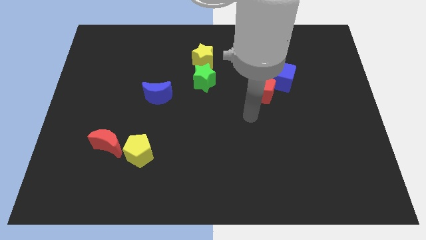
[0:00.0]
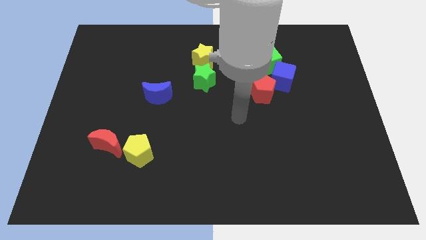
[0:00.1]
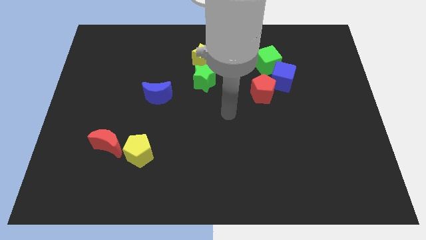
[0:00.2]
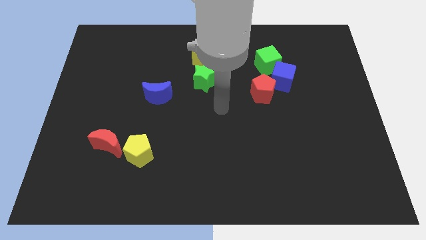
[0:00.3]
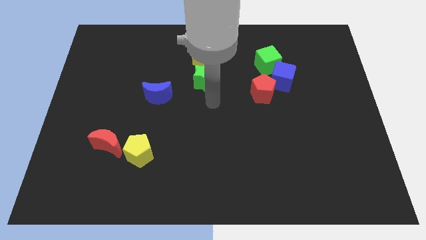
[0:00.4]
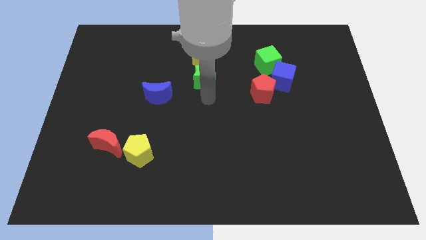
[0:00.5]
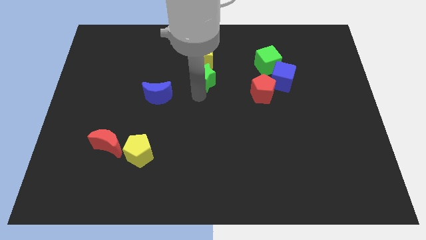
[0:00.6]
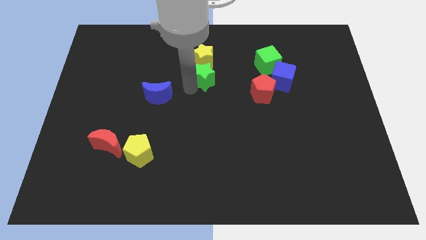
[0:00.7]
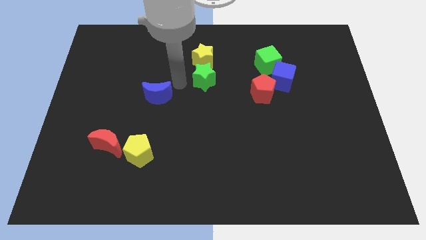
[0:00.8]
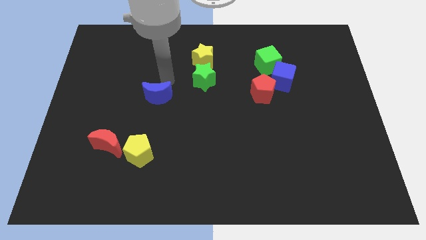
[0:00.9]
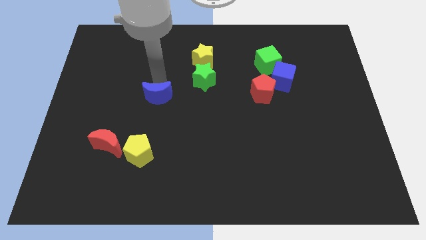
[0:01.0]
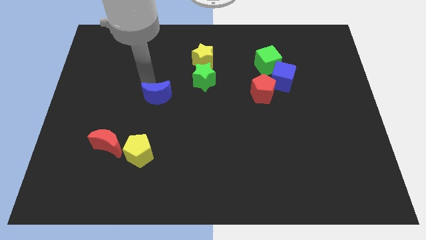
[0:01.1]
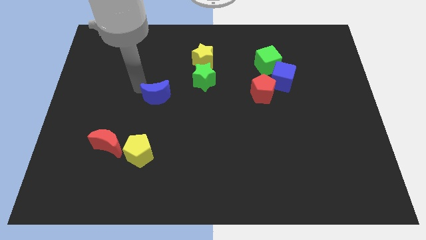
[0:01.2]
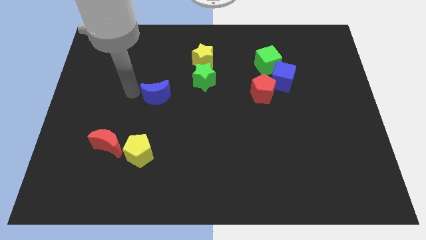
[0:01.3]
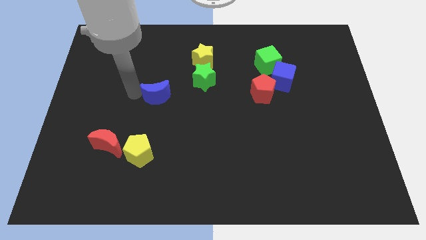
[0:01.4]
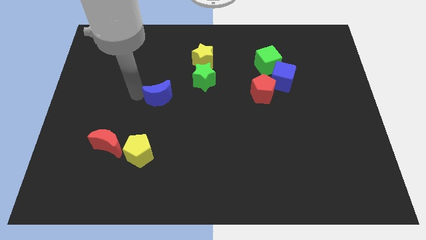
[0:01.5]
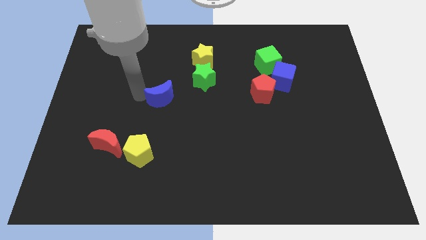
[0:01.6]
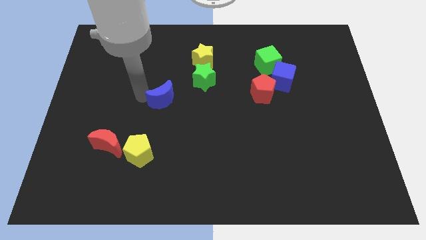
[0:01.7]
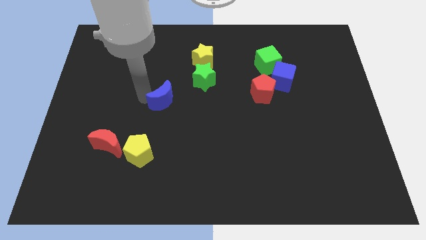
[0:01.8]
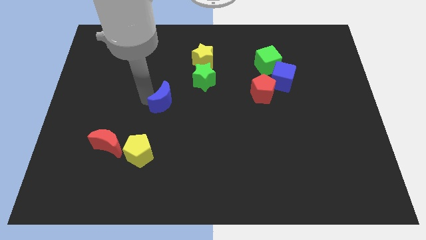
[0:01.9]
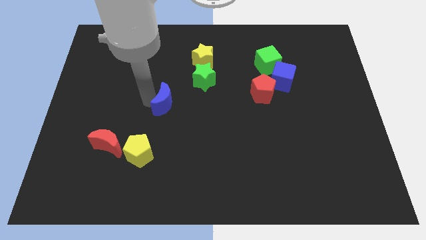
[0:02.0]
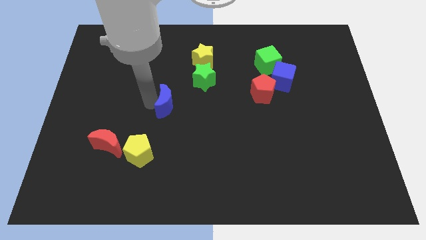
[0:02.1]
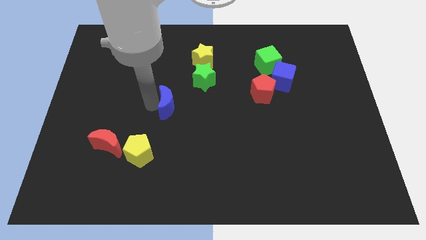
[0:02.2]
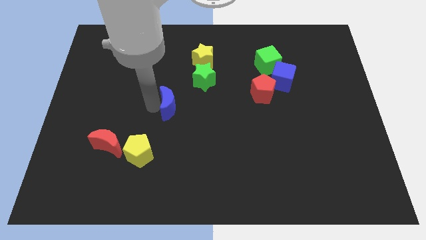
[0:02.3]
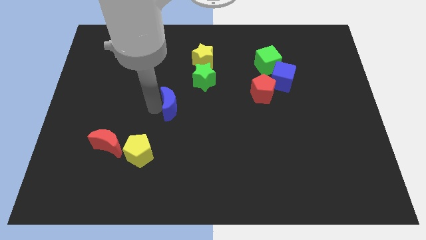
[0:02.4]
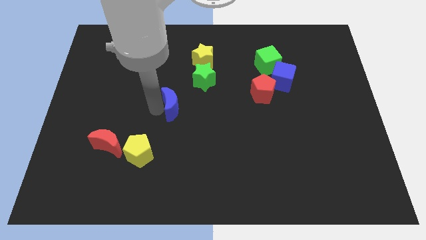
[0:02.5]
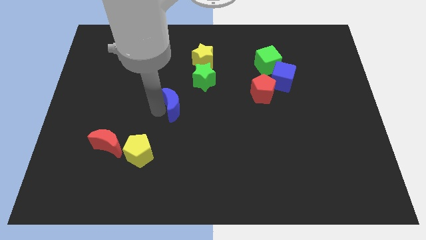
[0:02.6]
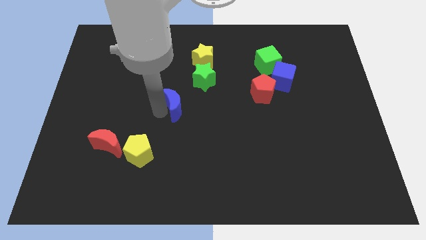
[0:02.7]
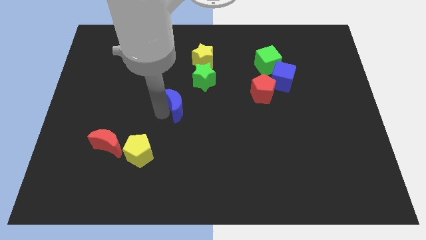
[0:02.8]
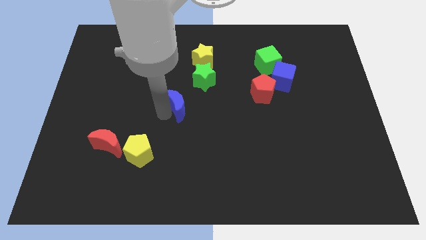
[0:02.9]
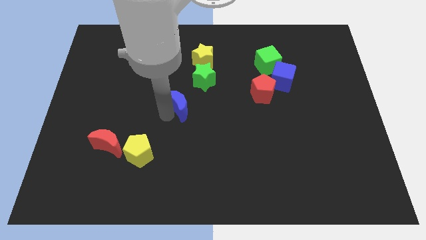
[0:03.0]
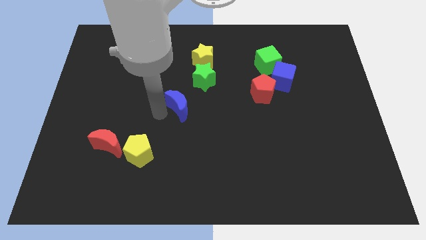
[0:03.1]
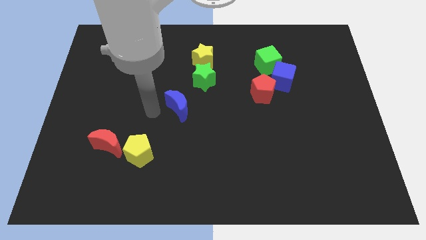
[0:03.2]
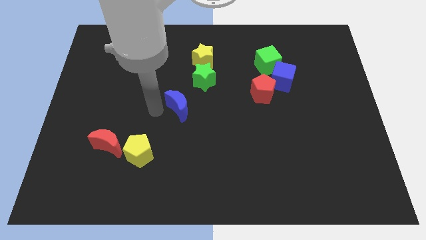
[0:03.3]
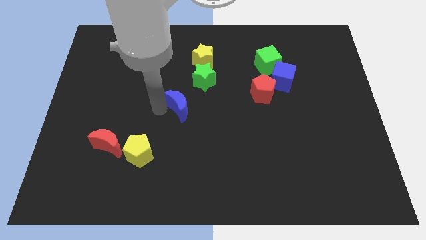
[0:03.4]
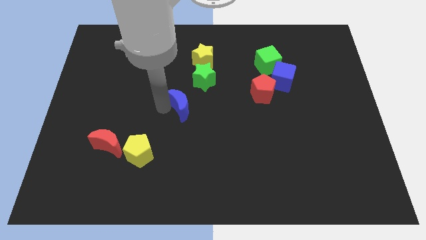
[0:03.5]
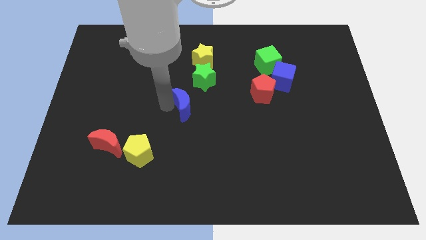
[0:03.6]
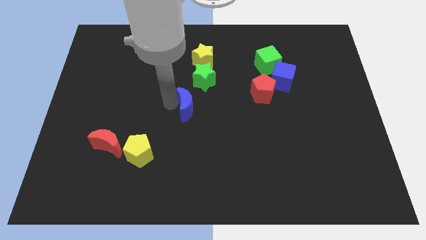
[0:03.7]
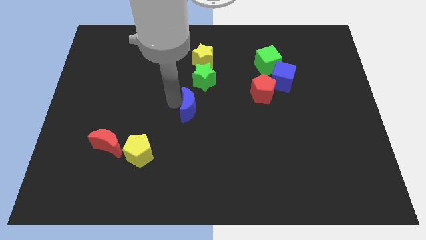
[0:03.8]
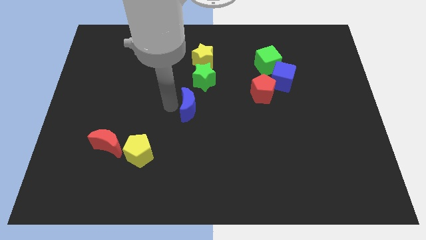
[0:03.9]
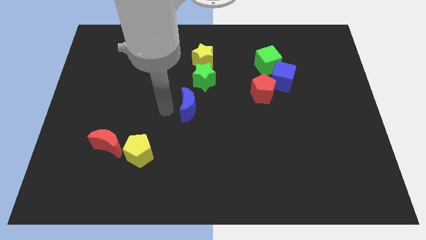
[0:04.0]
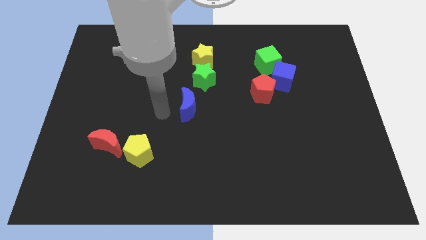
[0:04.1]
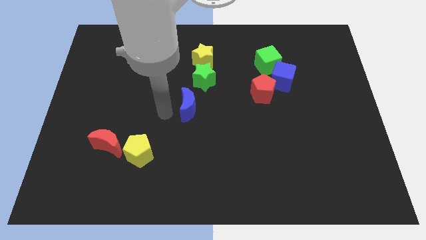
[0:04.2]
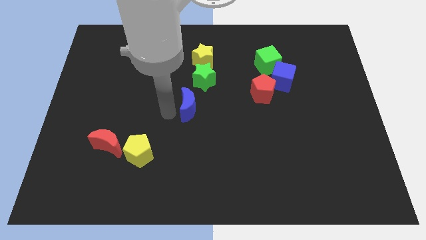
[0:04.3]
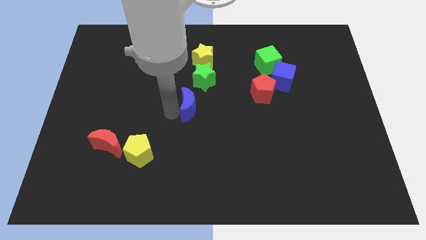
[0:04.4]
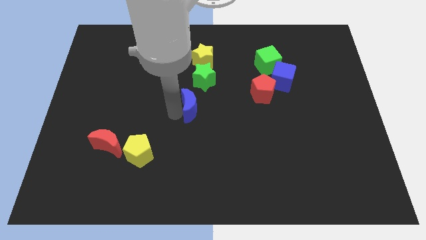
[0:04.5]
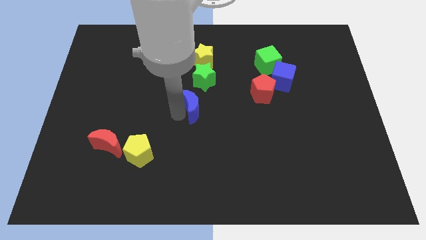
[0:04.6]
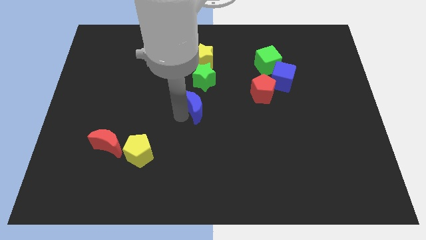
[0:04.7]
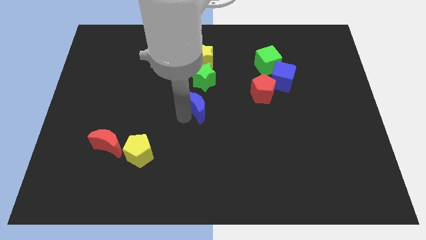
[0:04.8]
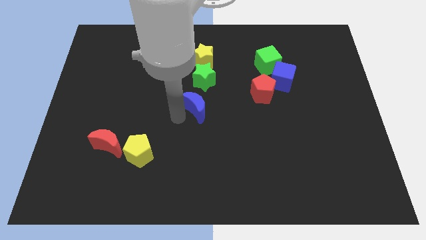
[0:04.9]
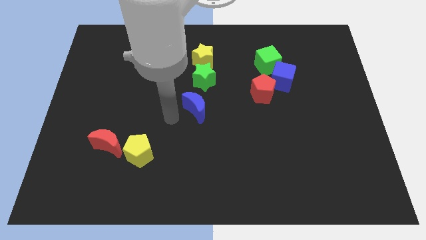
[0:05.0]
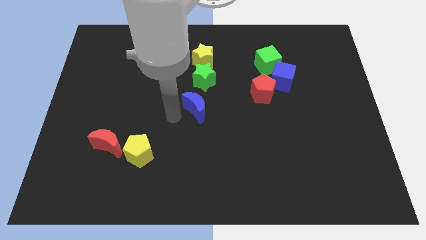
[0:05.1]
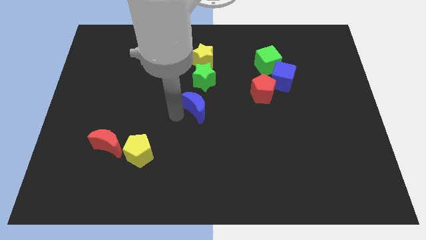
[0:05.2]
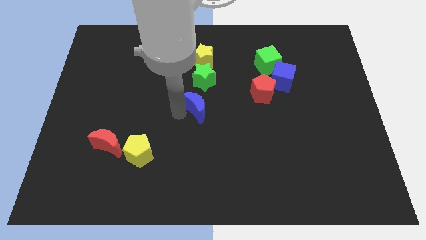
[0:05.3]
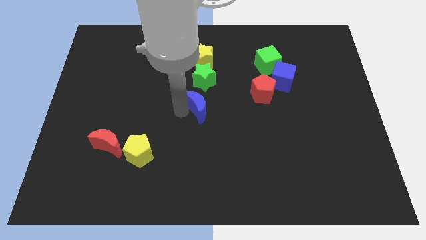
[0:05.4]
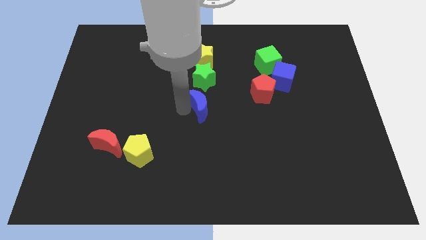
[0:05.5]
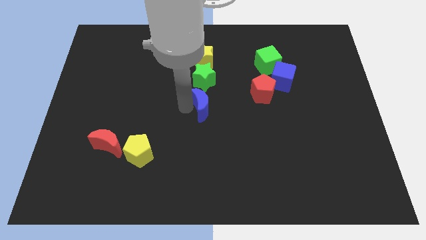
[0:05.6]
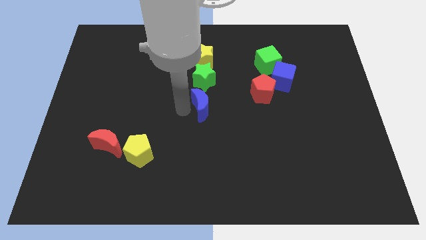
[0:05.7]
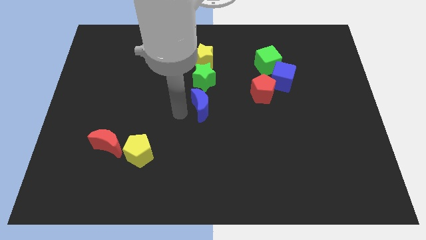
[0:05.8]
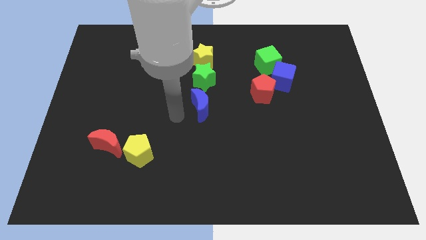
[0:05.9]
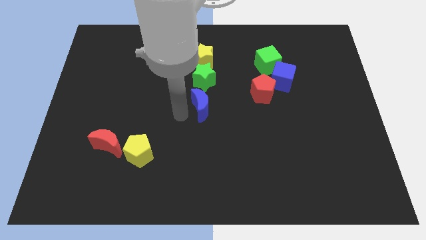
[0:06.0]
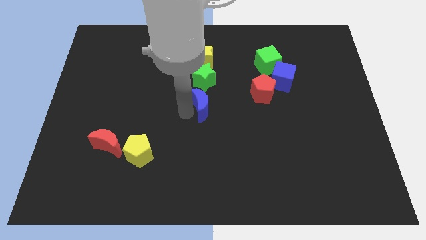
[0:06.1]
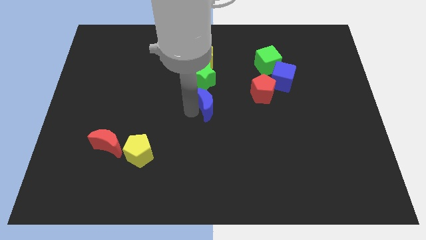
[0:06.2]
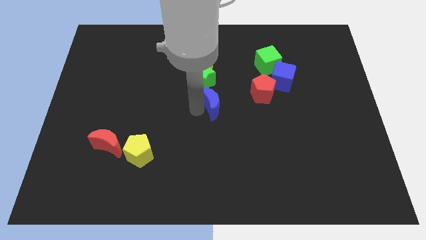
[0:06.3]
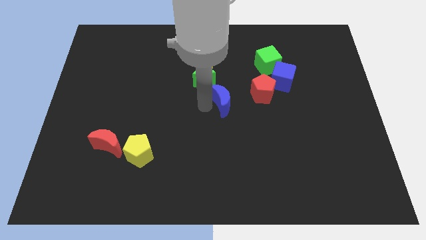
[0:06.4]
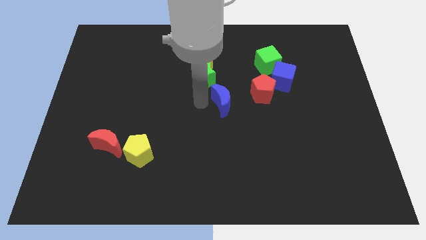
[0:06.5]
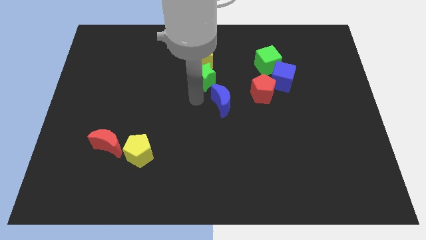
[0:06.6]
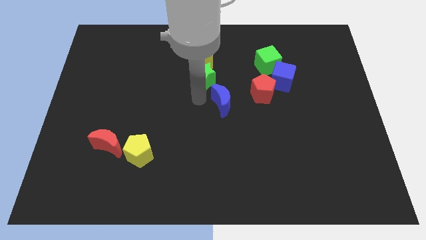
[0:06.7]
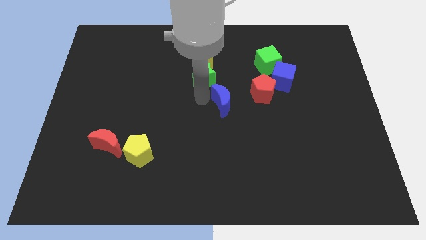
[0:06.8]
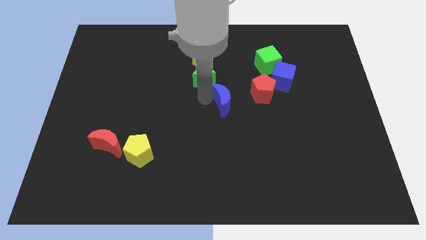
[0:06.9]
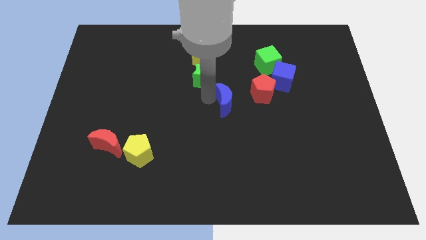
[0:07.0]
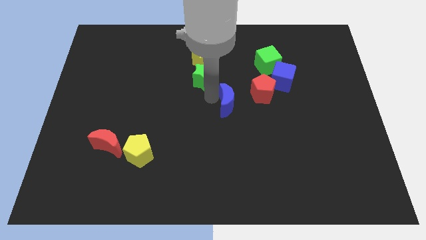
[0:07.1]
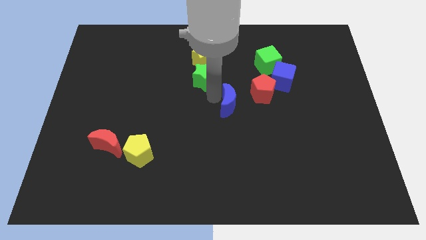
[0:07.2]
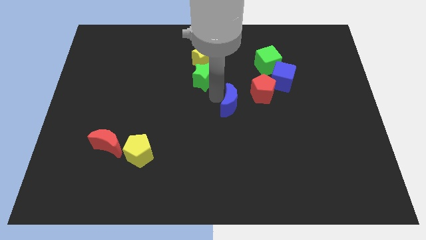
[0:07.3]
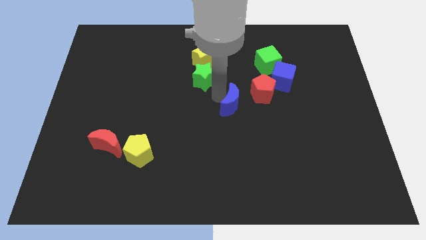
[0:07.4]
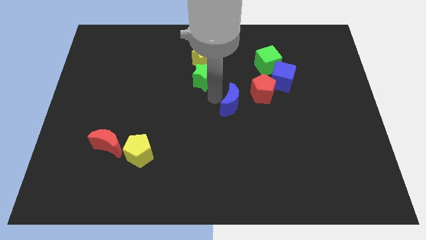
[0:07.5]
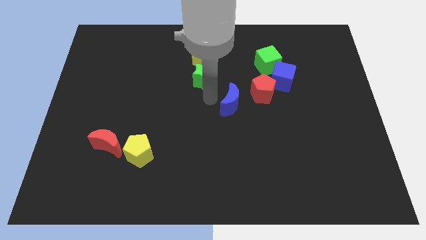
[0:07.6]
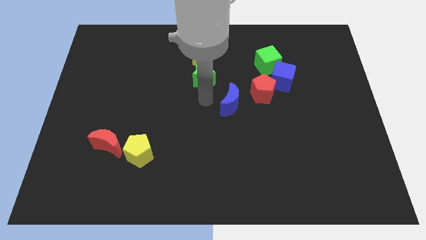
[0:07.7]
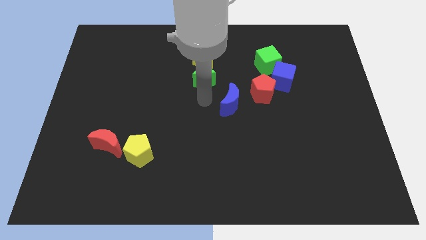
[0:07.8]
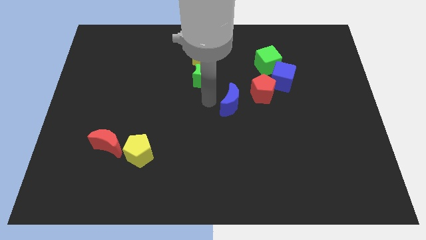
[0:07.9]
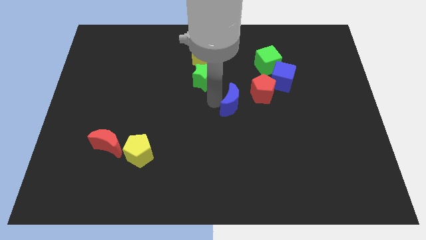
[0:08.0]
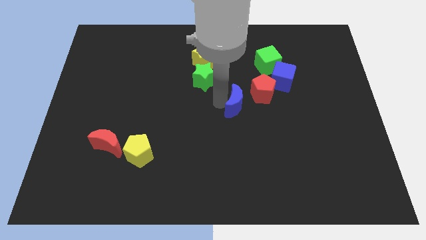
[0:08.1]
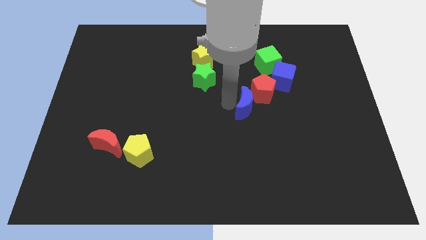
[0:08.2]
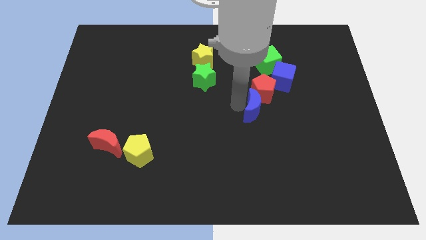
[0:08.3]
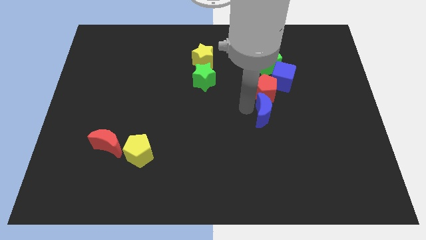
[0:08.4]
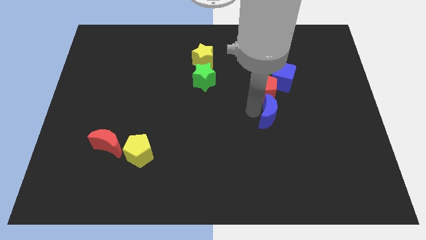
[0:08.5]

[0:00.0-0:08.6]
move the blue moon to the bottom side of the blue cube
